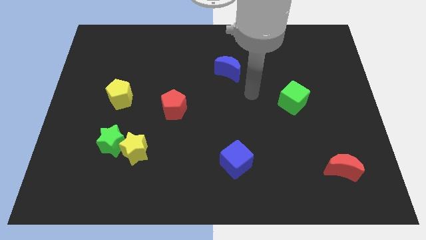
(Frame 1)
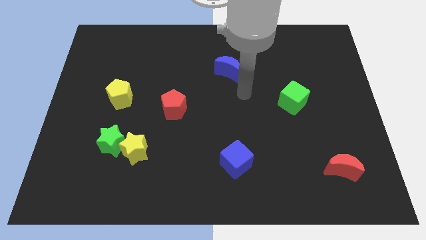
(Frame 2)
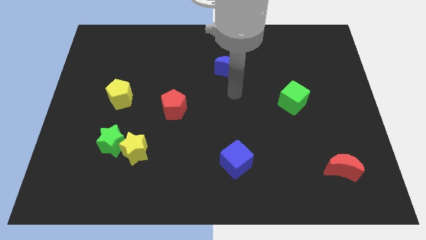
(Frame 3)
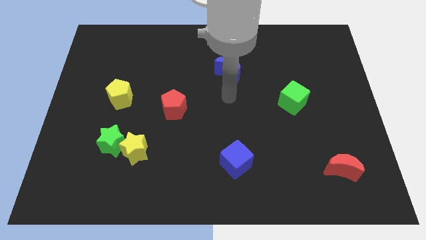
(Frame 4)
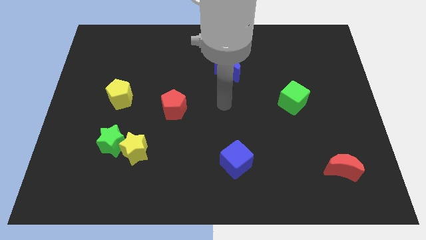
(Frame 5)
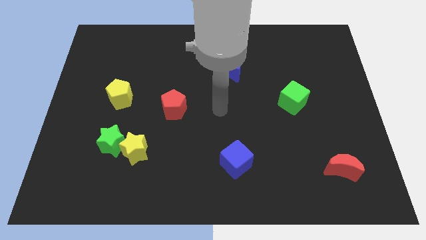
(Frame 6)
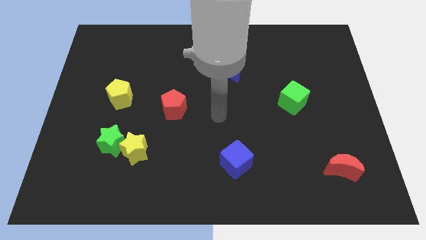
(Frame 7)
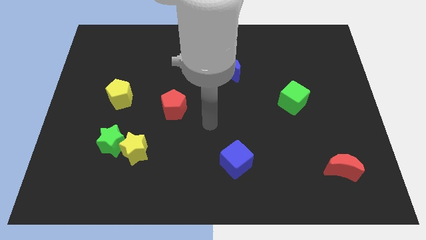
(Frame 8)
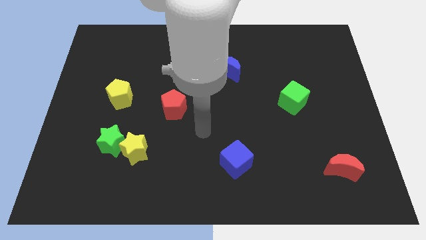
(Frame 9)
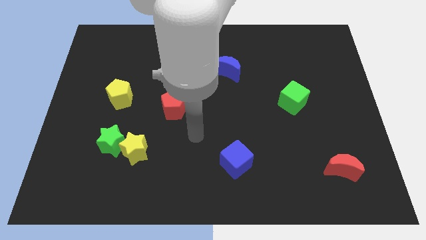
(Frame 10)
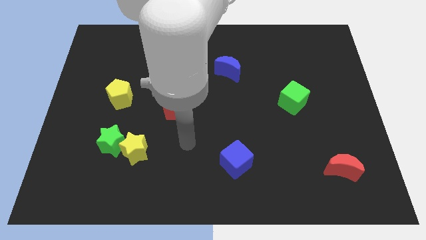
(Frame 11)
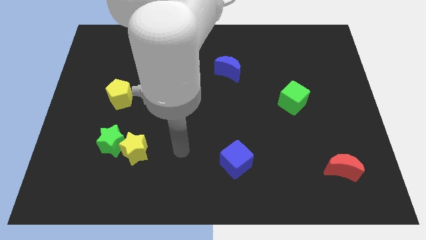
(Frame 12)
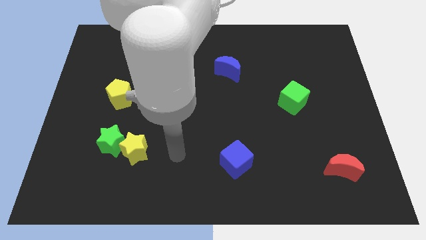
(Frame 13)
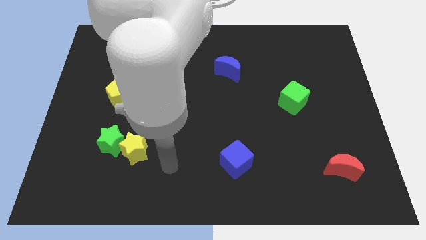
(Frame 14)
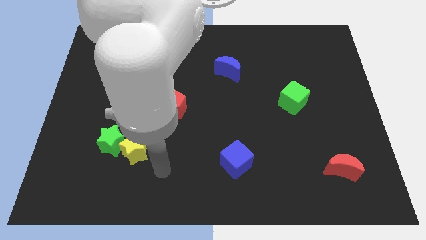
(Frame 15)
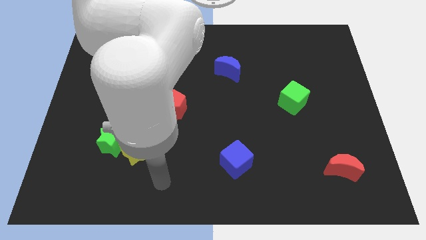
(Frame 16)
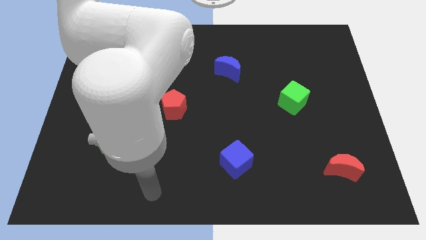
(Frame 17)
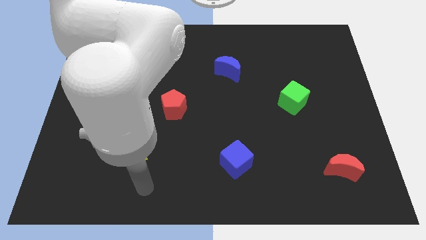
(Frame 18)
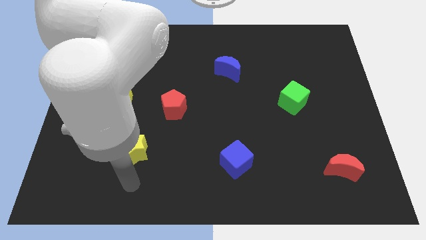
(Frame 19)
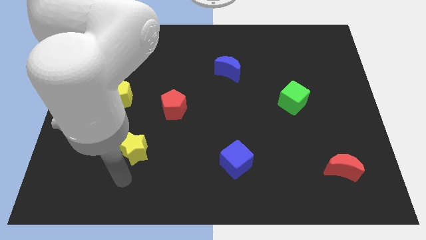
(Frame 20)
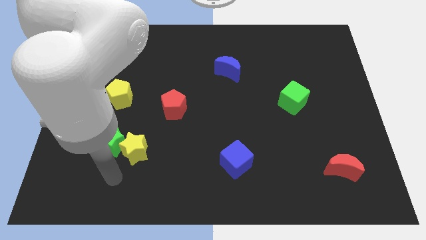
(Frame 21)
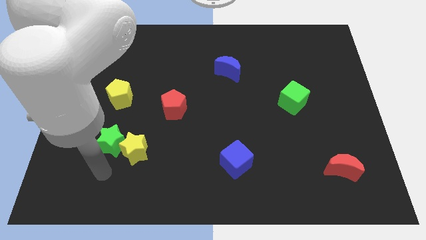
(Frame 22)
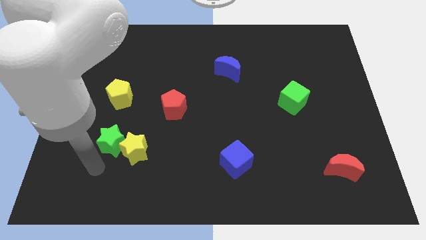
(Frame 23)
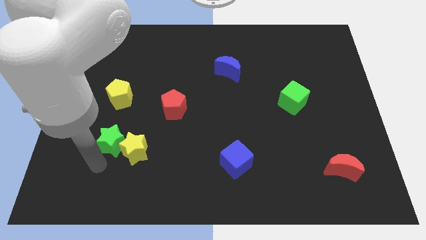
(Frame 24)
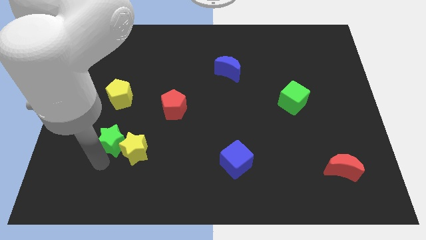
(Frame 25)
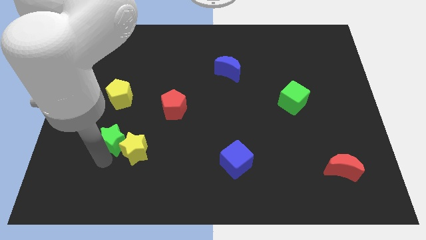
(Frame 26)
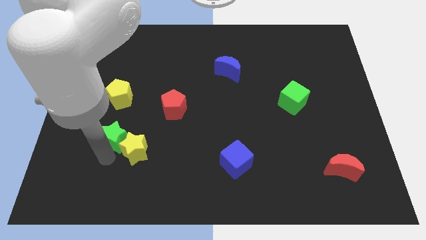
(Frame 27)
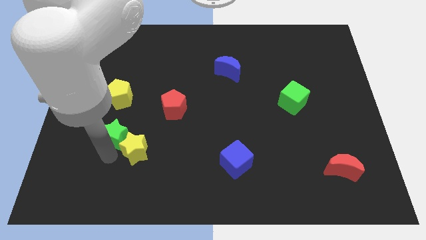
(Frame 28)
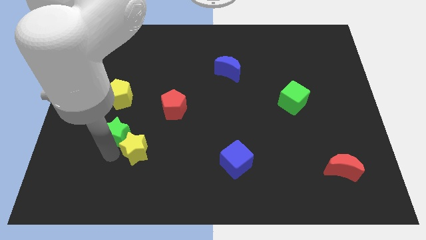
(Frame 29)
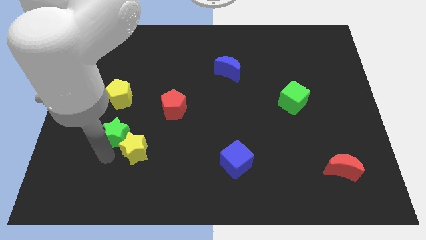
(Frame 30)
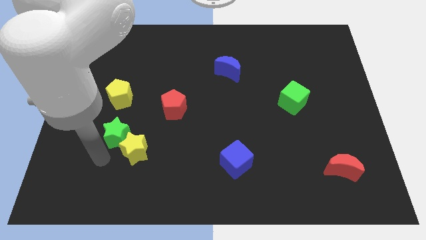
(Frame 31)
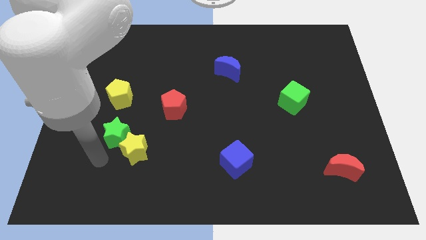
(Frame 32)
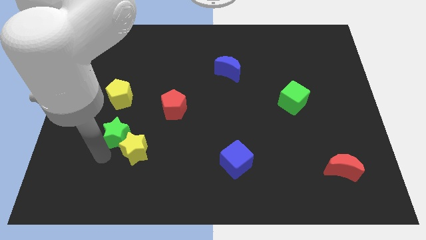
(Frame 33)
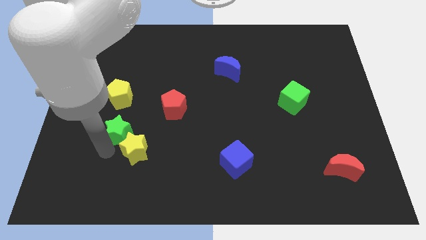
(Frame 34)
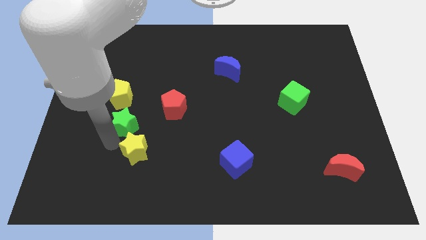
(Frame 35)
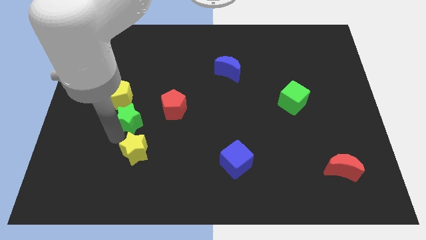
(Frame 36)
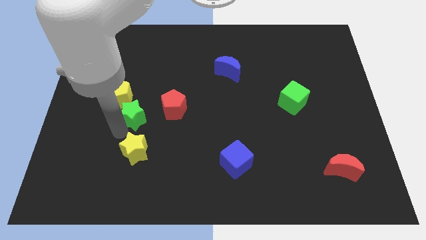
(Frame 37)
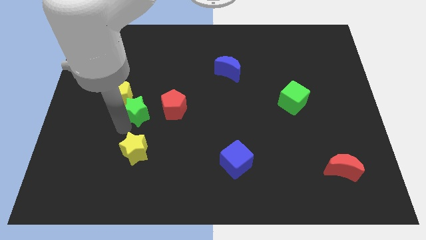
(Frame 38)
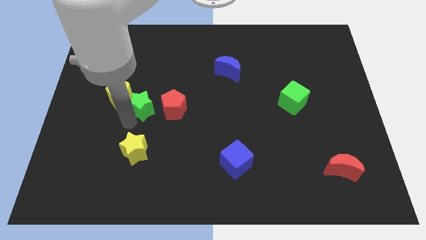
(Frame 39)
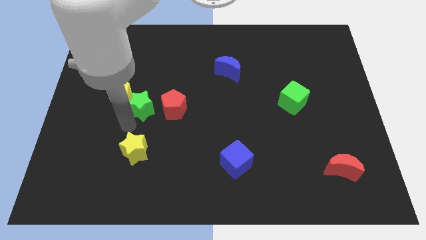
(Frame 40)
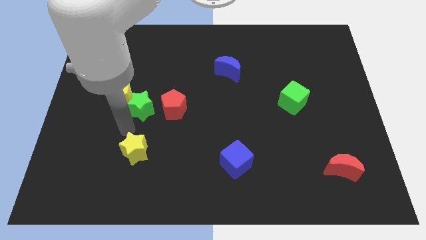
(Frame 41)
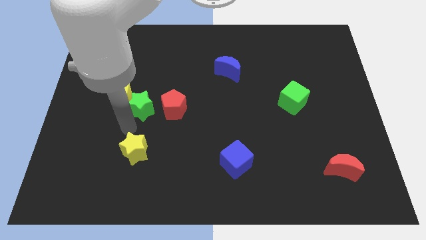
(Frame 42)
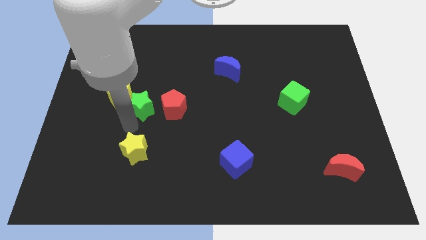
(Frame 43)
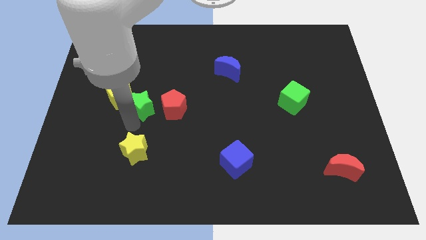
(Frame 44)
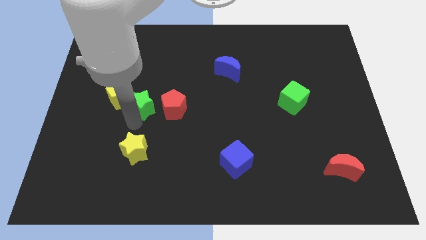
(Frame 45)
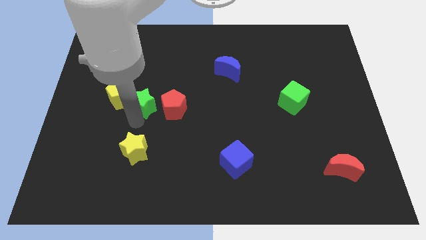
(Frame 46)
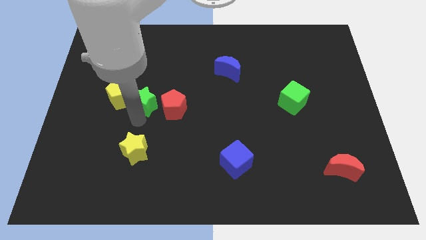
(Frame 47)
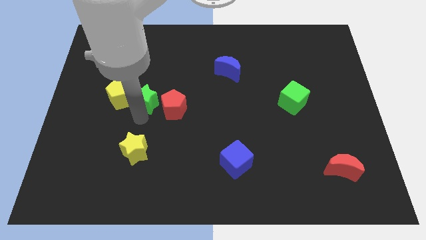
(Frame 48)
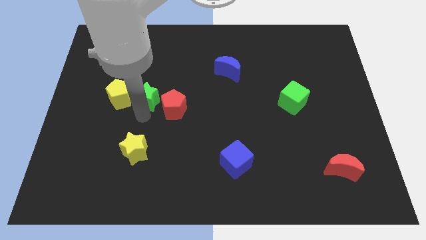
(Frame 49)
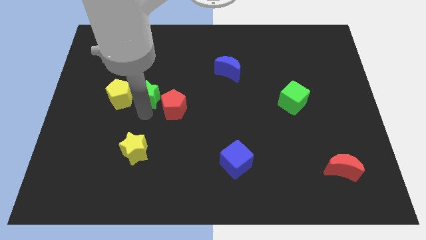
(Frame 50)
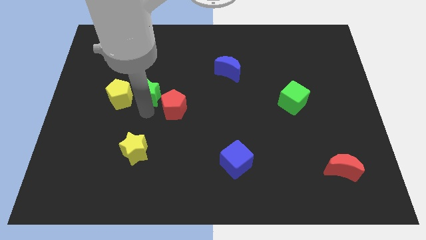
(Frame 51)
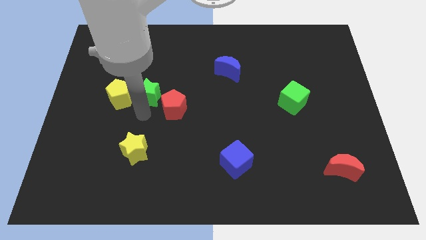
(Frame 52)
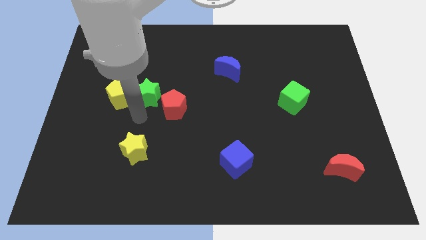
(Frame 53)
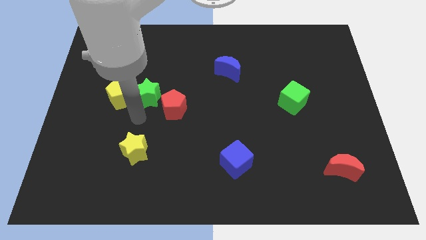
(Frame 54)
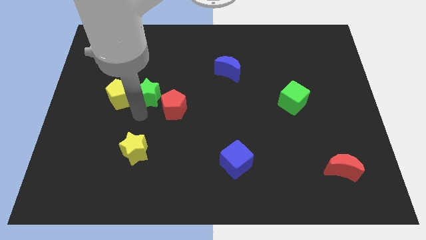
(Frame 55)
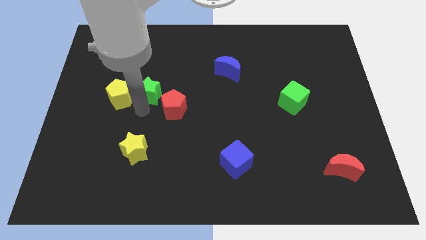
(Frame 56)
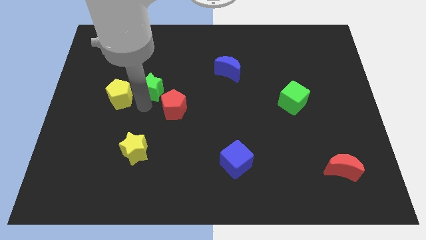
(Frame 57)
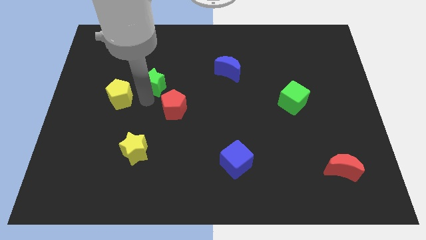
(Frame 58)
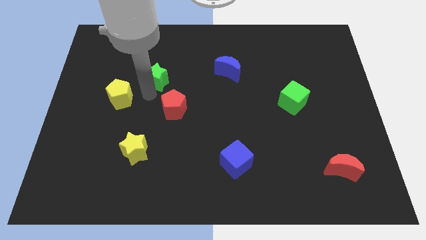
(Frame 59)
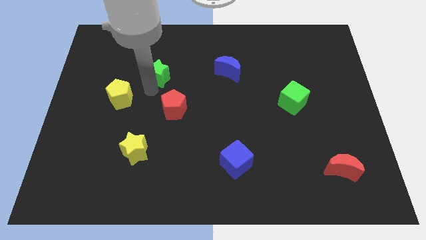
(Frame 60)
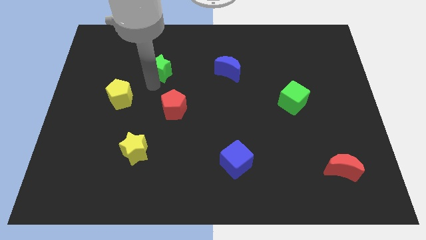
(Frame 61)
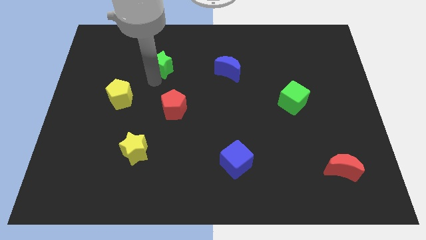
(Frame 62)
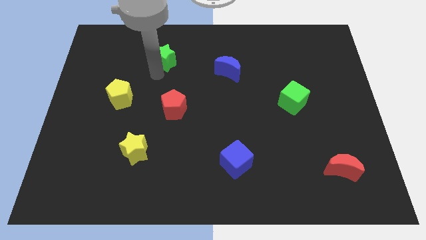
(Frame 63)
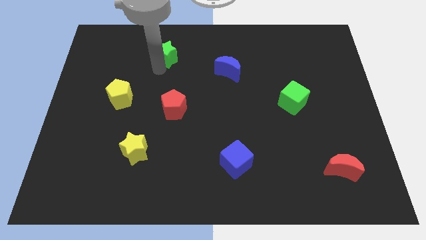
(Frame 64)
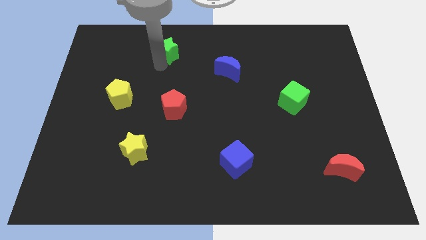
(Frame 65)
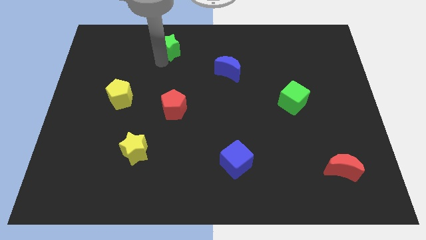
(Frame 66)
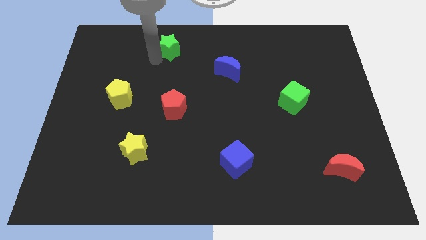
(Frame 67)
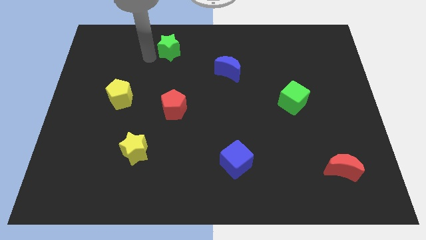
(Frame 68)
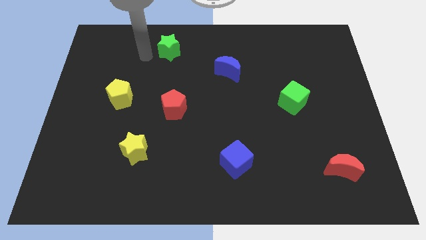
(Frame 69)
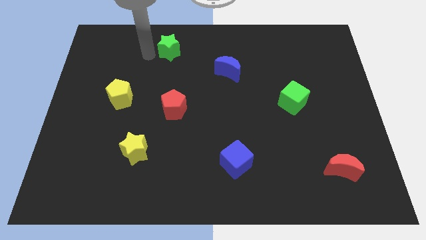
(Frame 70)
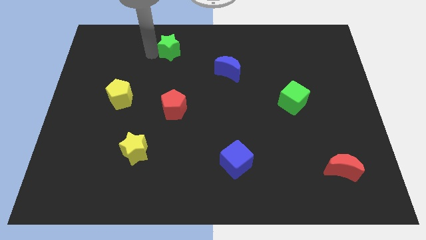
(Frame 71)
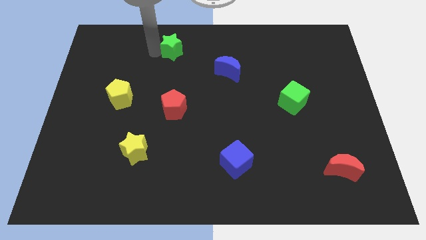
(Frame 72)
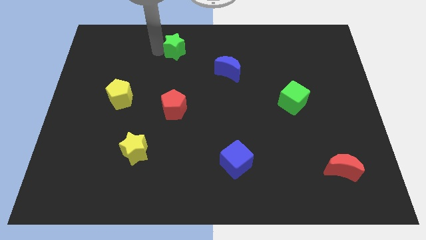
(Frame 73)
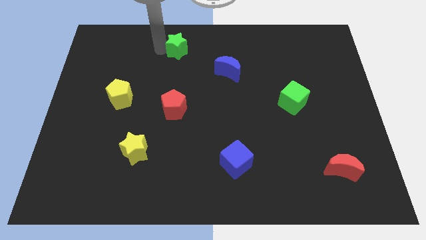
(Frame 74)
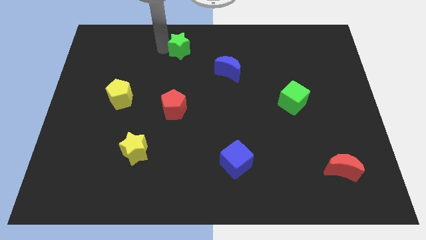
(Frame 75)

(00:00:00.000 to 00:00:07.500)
slide the green star to the top side

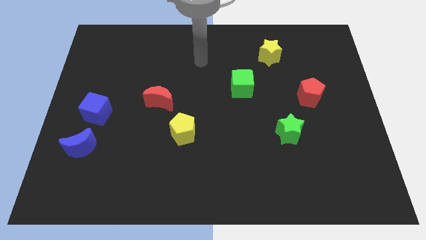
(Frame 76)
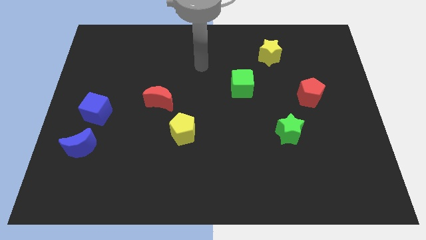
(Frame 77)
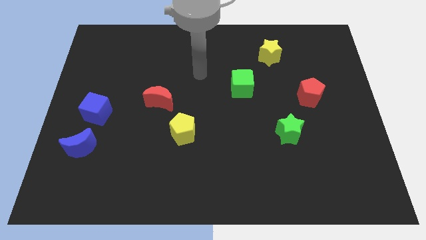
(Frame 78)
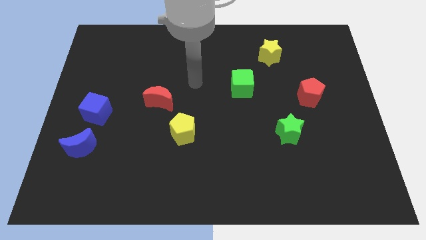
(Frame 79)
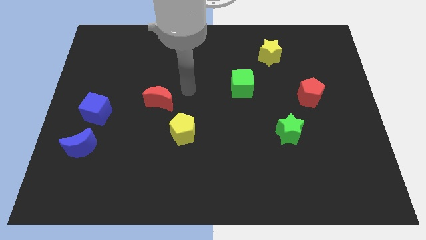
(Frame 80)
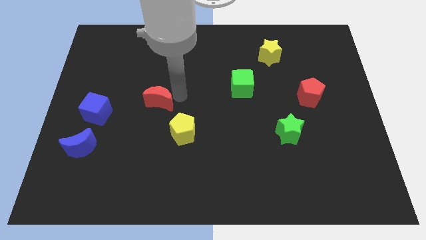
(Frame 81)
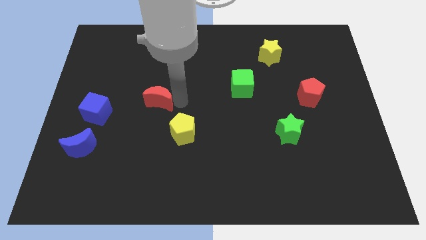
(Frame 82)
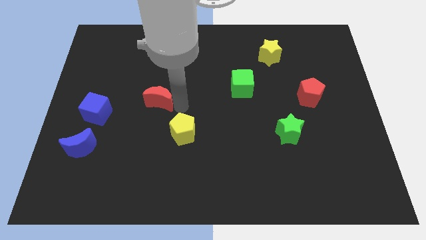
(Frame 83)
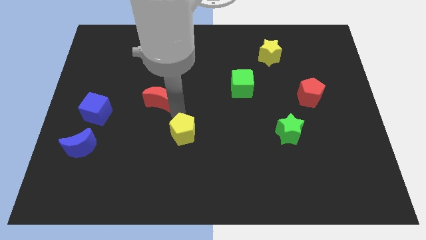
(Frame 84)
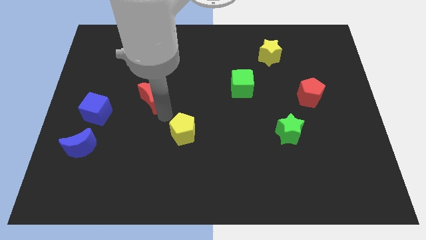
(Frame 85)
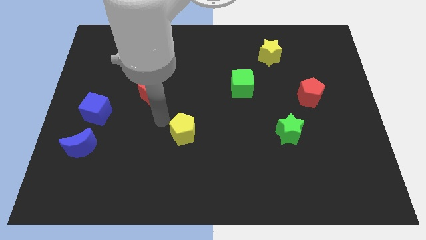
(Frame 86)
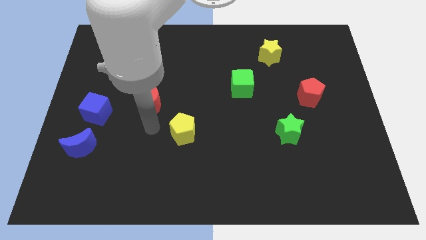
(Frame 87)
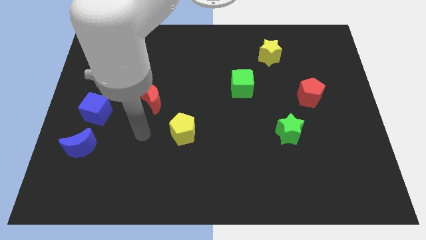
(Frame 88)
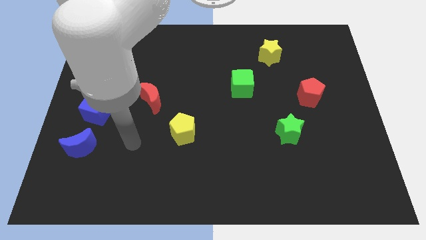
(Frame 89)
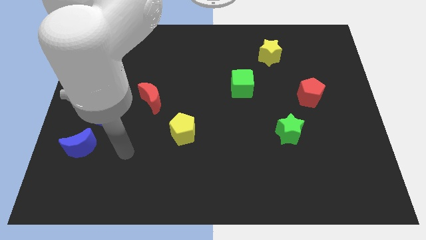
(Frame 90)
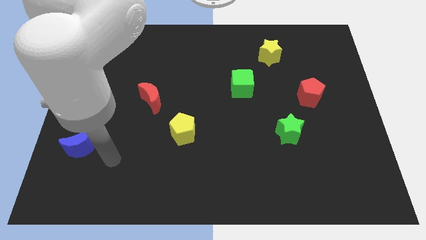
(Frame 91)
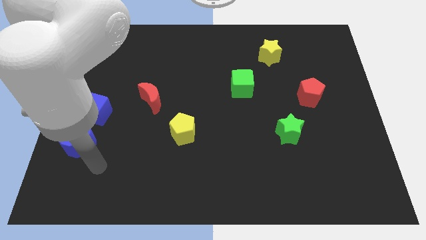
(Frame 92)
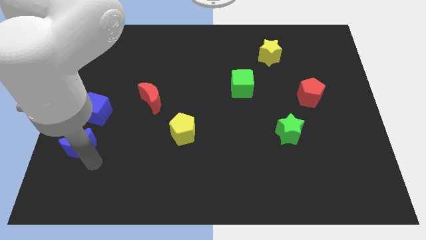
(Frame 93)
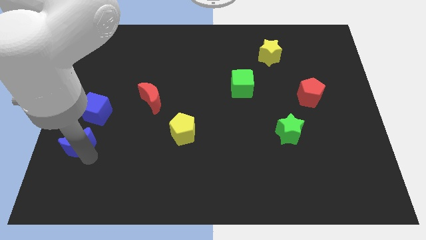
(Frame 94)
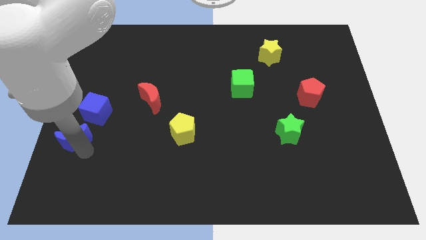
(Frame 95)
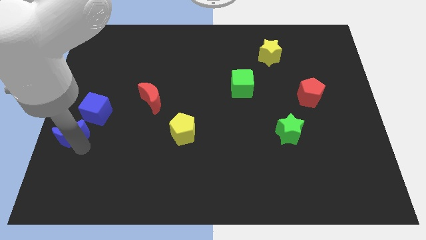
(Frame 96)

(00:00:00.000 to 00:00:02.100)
move the blue moon to the left side
